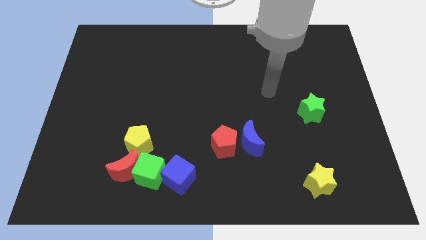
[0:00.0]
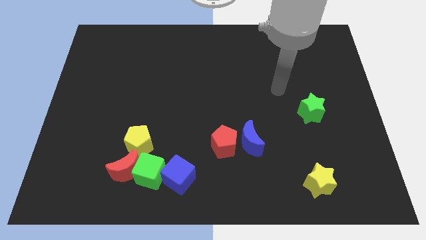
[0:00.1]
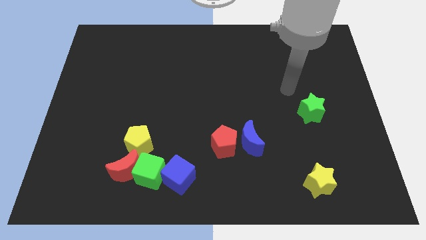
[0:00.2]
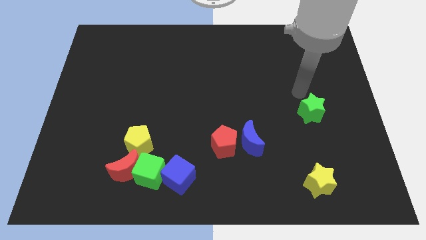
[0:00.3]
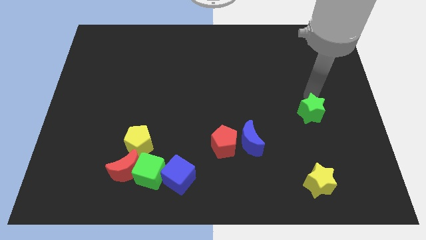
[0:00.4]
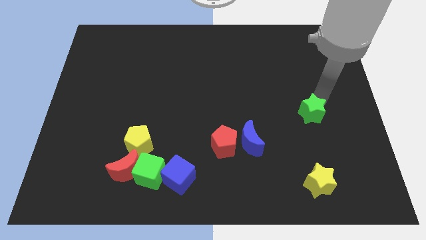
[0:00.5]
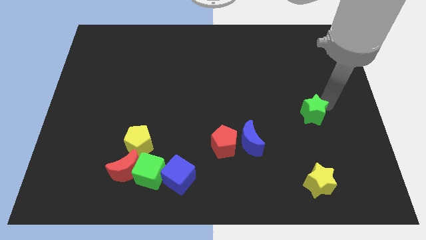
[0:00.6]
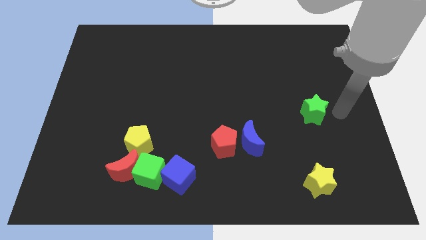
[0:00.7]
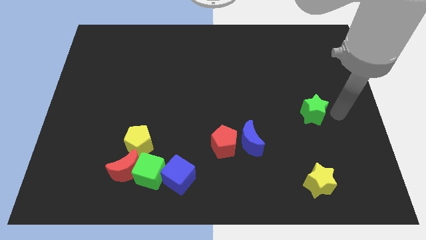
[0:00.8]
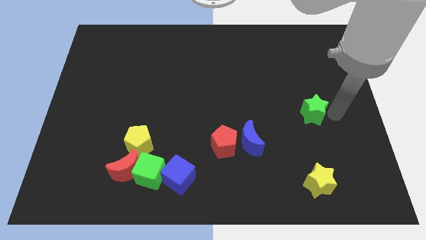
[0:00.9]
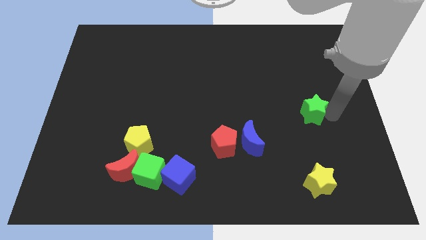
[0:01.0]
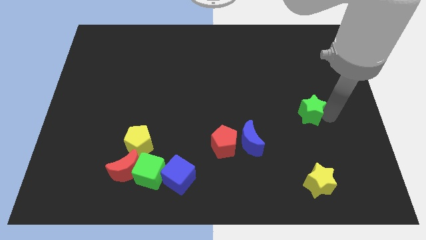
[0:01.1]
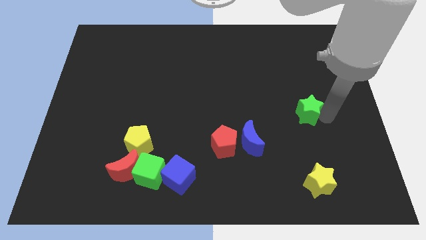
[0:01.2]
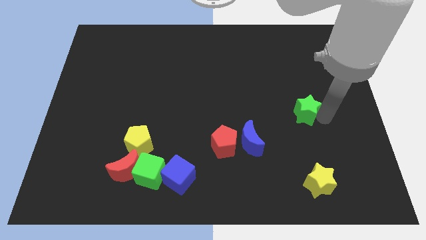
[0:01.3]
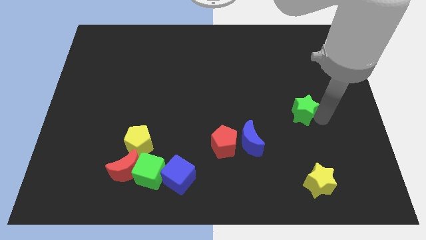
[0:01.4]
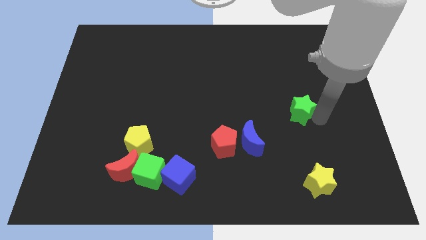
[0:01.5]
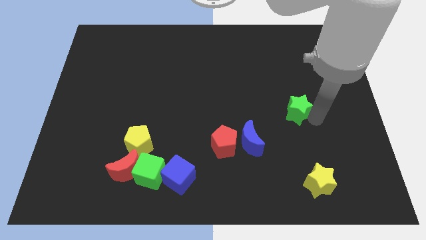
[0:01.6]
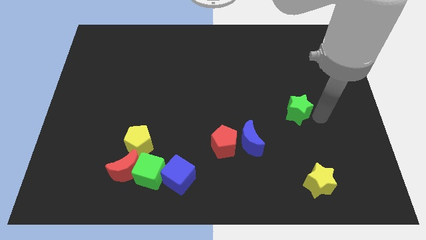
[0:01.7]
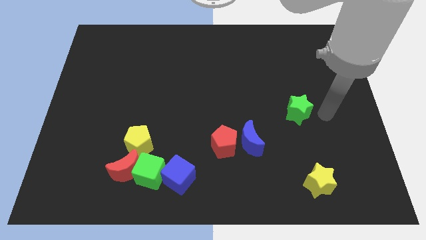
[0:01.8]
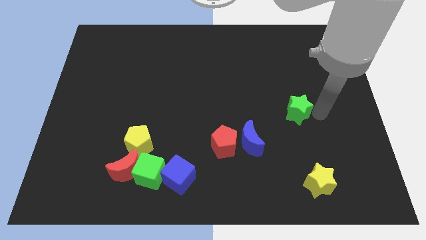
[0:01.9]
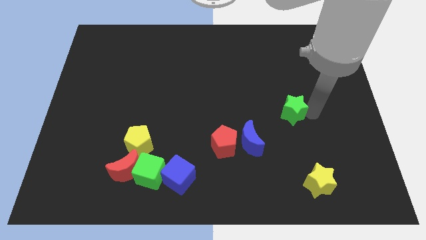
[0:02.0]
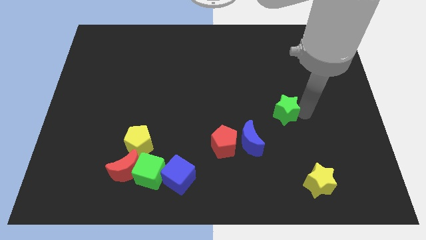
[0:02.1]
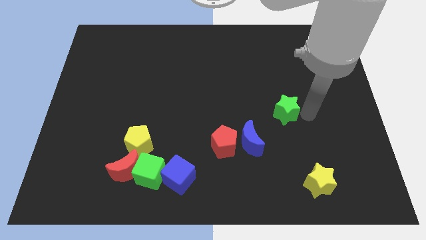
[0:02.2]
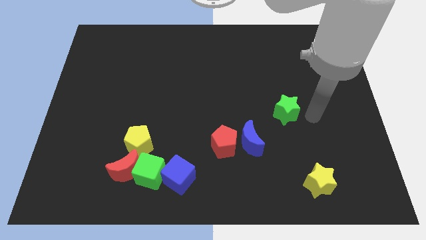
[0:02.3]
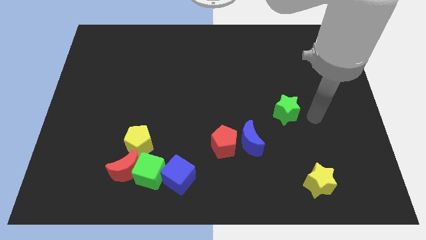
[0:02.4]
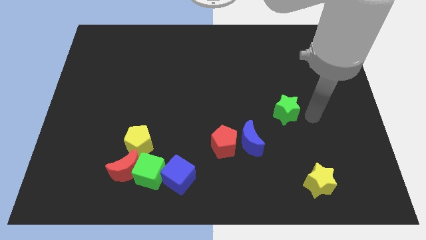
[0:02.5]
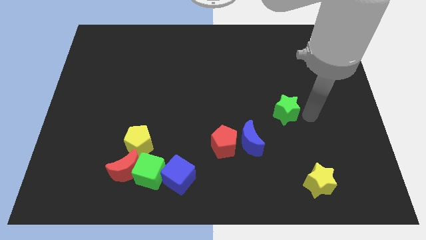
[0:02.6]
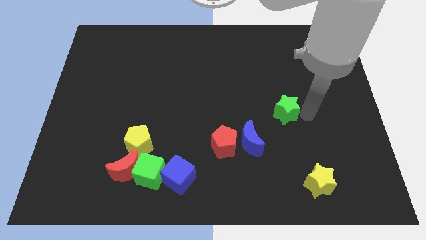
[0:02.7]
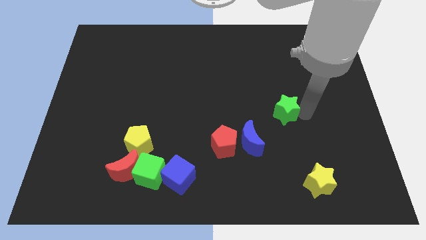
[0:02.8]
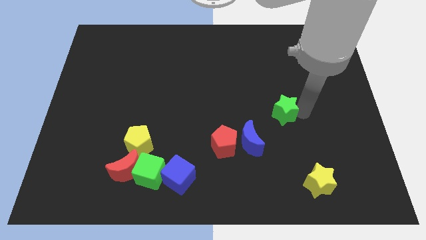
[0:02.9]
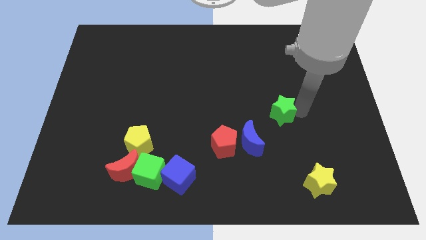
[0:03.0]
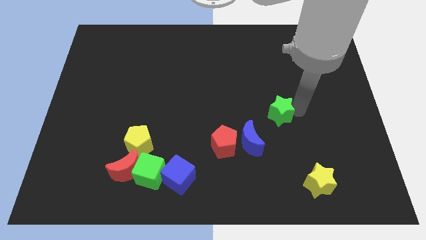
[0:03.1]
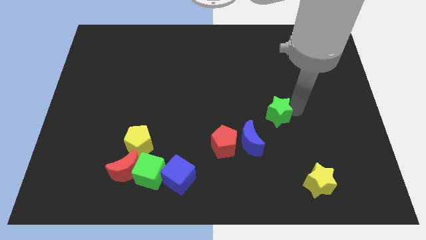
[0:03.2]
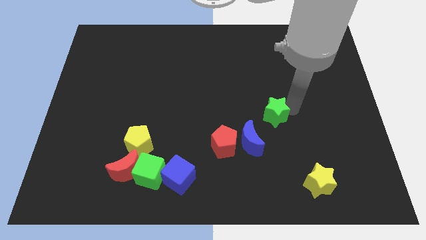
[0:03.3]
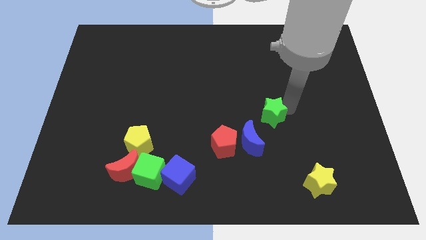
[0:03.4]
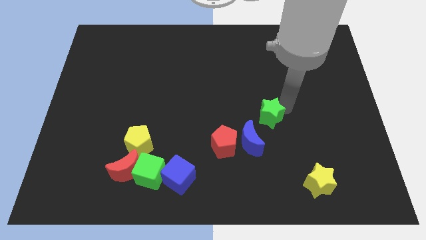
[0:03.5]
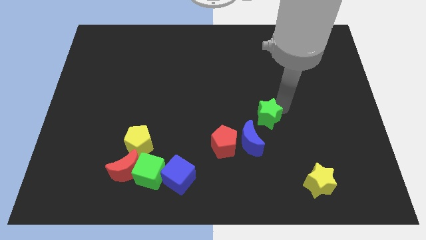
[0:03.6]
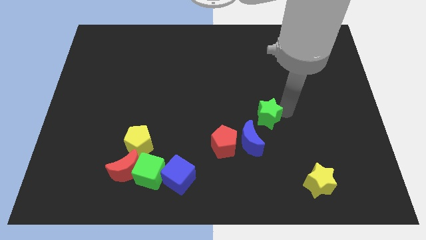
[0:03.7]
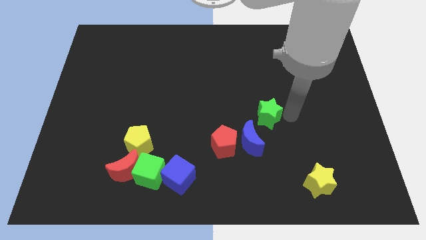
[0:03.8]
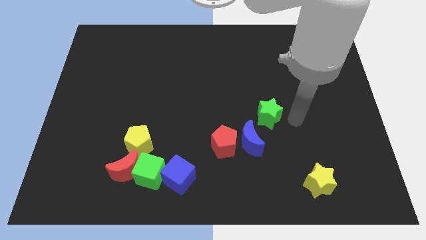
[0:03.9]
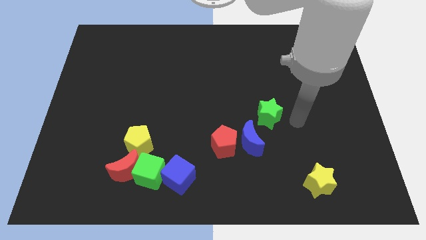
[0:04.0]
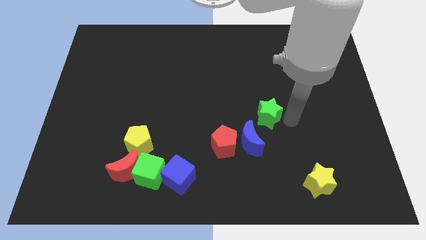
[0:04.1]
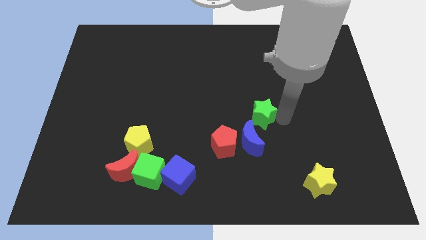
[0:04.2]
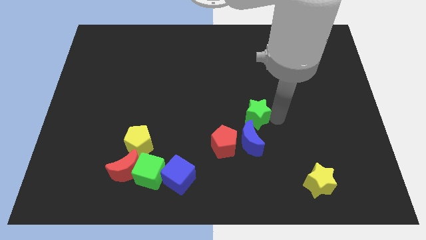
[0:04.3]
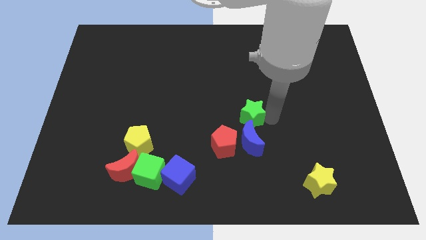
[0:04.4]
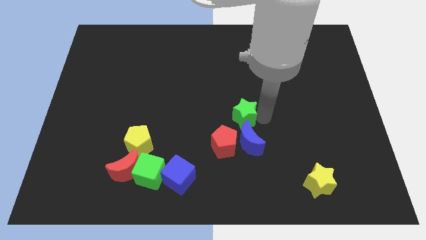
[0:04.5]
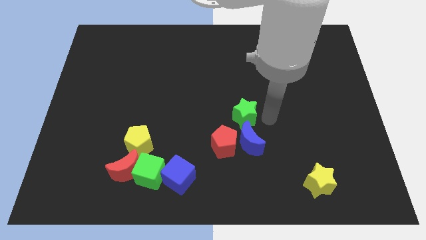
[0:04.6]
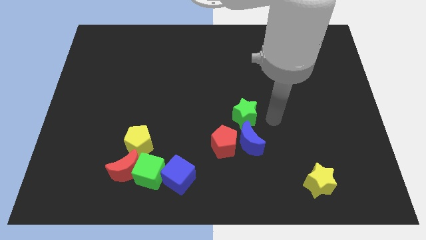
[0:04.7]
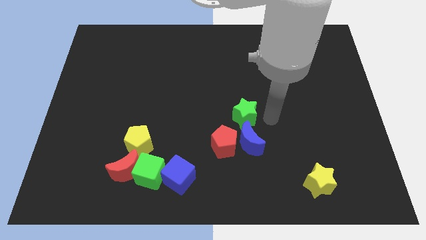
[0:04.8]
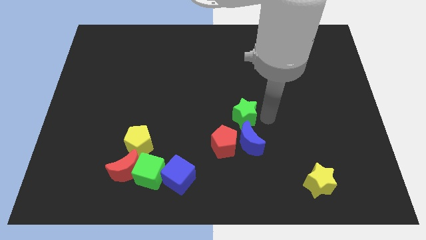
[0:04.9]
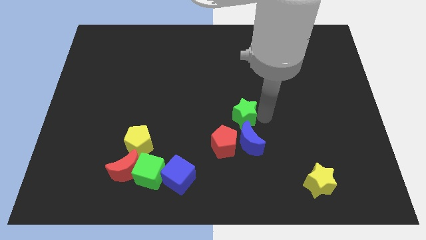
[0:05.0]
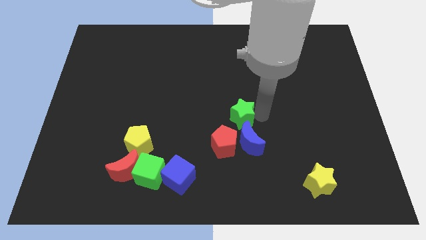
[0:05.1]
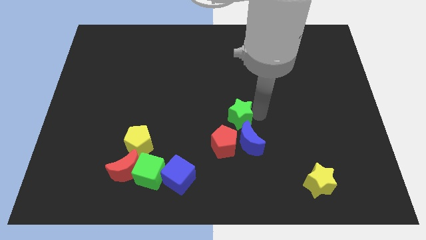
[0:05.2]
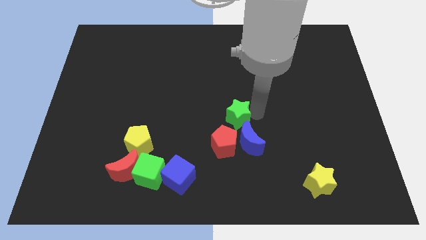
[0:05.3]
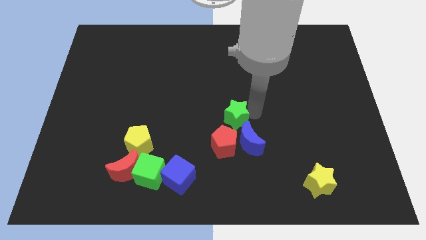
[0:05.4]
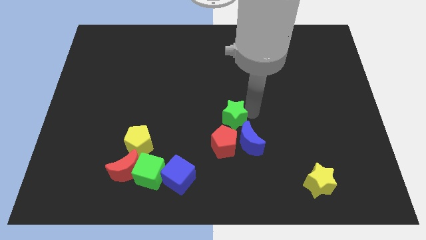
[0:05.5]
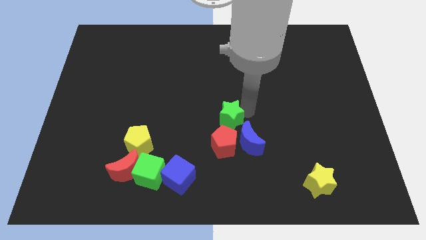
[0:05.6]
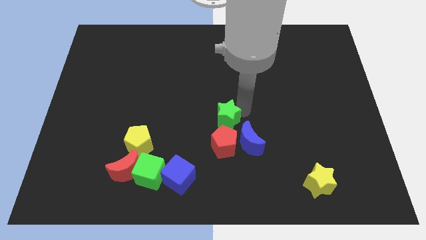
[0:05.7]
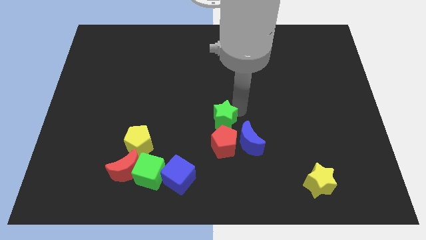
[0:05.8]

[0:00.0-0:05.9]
slide the green star left

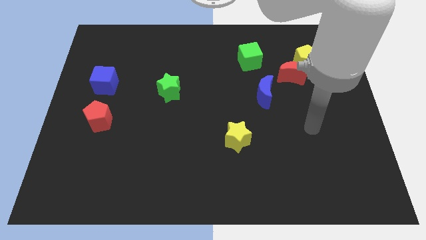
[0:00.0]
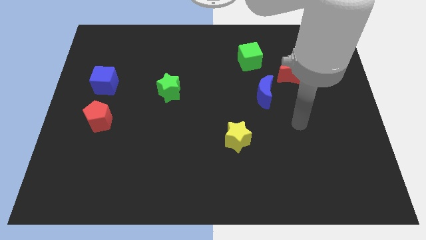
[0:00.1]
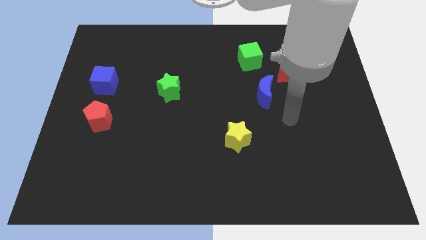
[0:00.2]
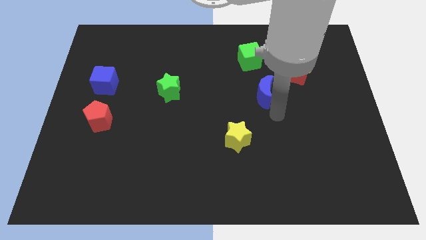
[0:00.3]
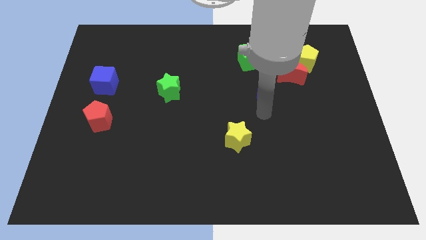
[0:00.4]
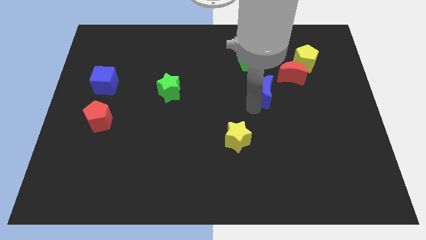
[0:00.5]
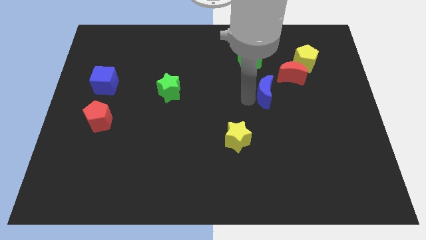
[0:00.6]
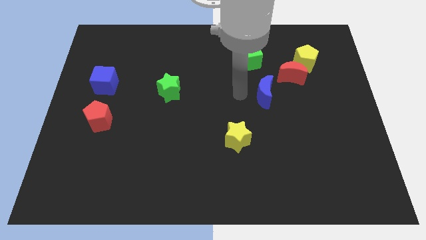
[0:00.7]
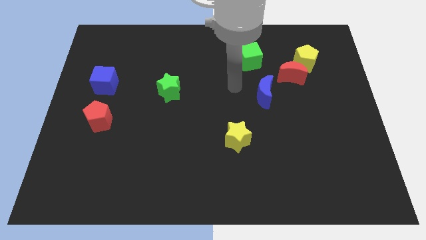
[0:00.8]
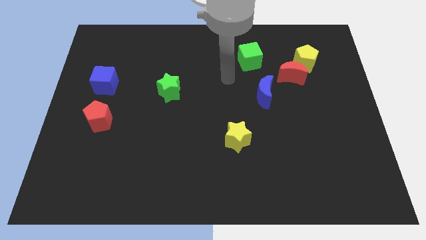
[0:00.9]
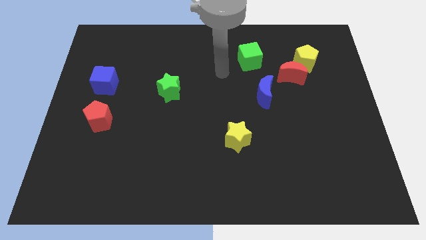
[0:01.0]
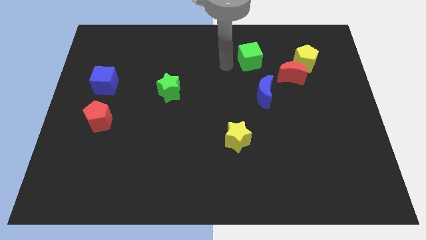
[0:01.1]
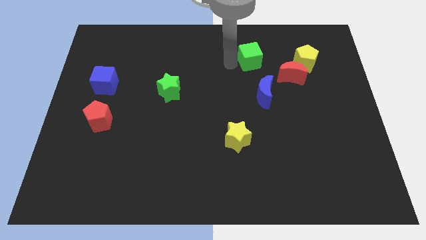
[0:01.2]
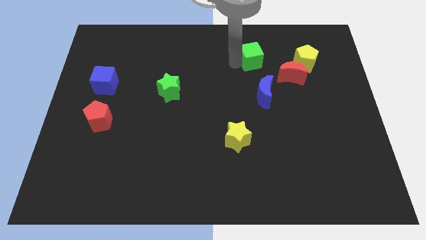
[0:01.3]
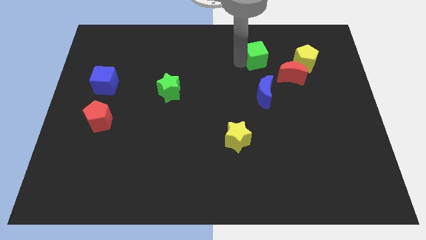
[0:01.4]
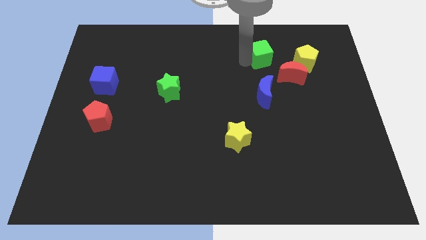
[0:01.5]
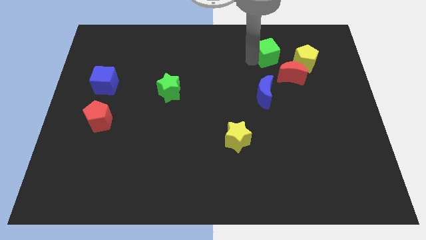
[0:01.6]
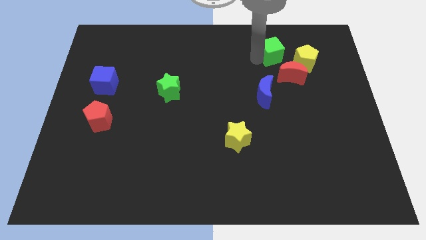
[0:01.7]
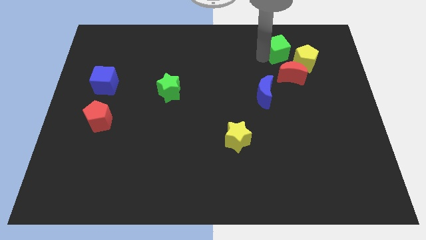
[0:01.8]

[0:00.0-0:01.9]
slide the green cube somewhat to the right

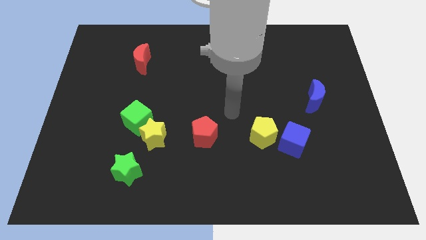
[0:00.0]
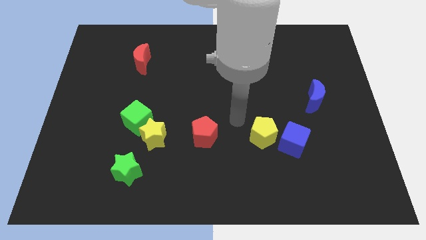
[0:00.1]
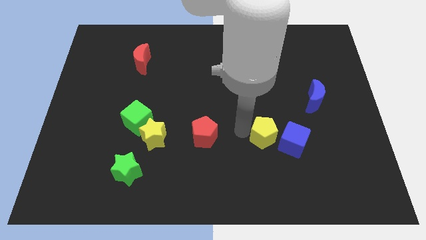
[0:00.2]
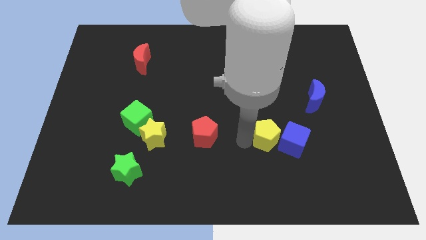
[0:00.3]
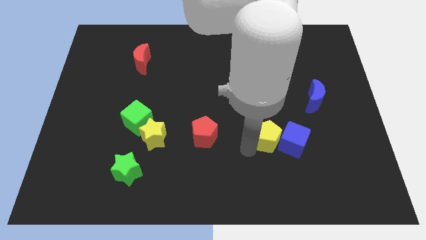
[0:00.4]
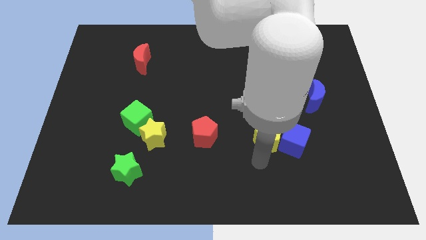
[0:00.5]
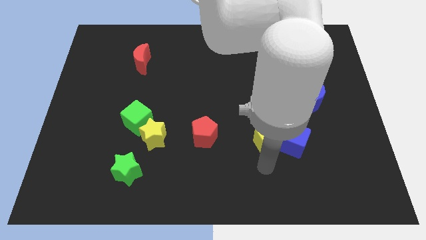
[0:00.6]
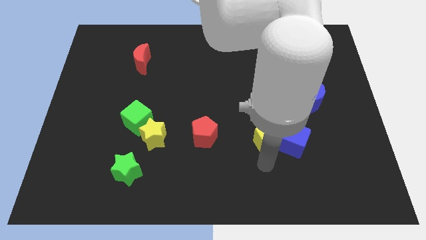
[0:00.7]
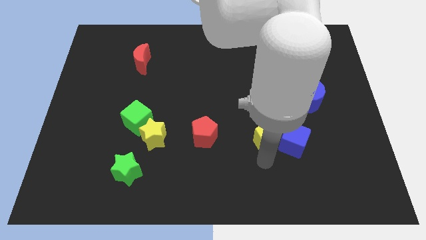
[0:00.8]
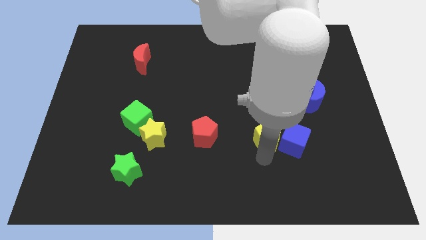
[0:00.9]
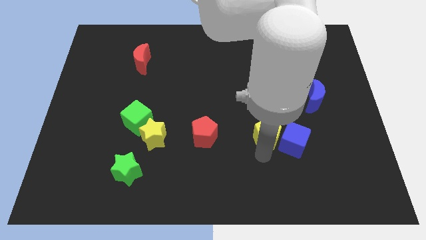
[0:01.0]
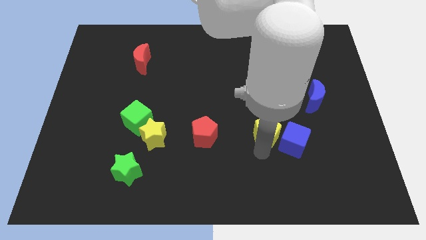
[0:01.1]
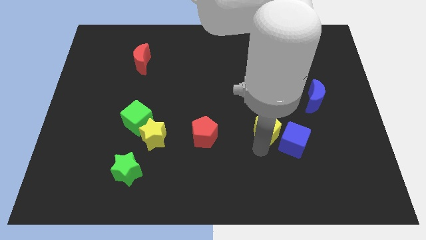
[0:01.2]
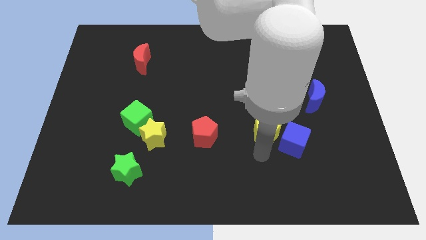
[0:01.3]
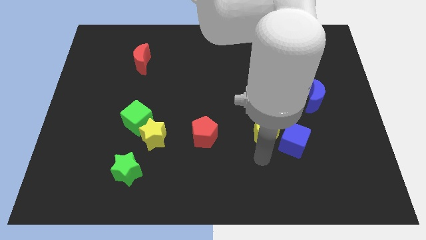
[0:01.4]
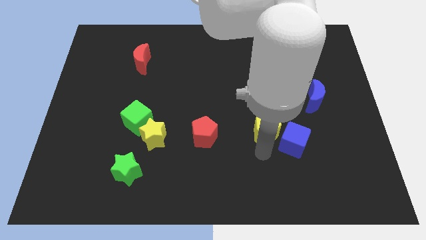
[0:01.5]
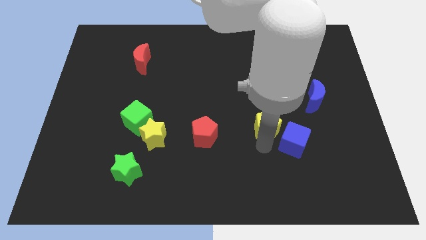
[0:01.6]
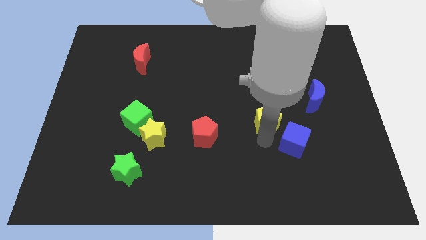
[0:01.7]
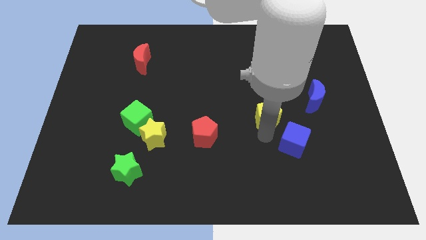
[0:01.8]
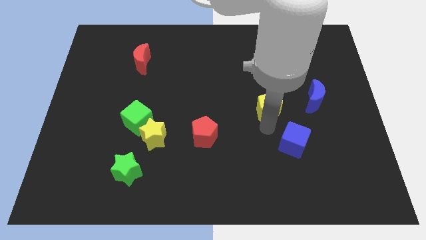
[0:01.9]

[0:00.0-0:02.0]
push the yellow pentagon somewhat upwards
